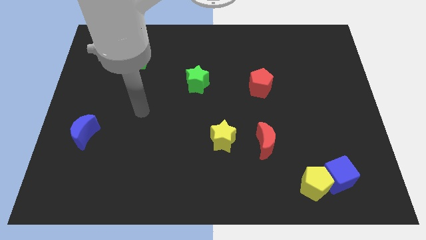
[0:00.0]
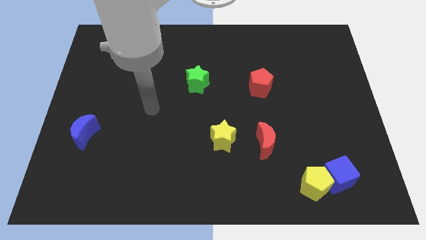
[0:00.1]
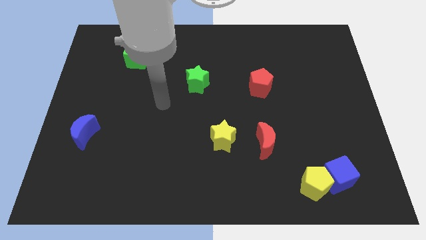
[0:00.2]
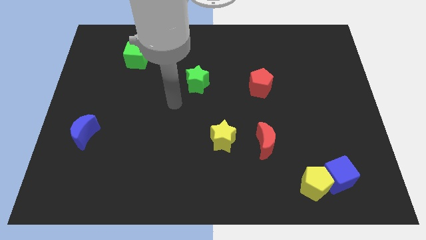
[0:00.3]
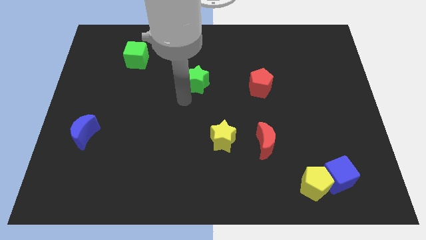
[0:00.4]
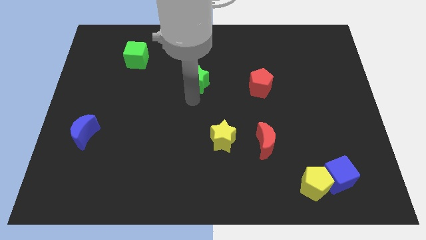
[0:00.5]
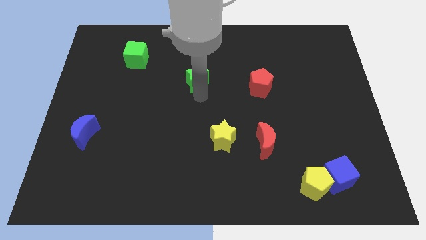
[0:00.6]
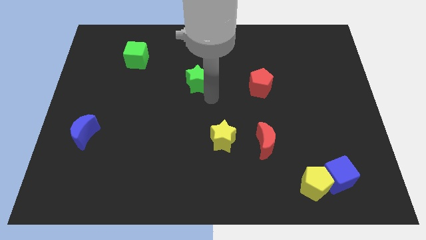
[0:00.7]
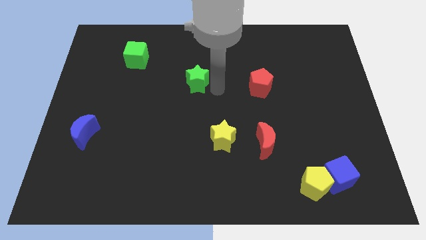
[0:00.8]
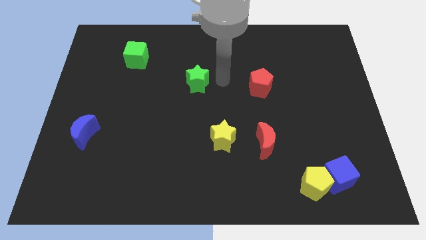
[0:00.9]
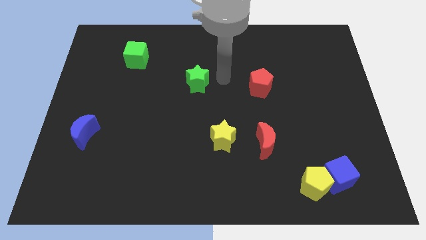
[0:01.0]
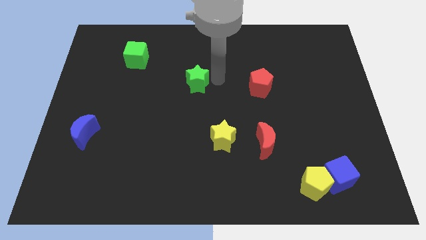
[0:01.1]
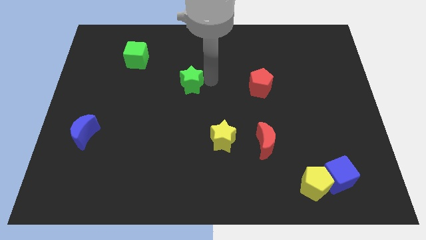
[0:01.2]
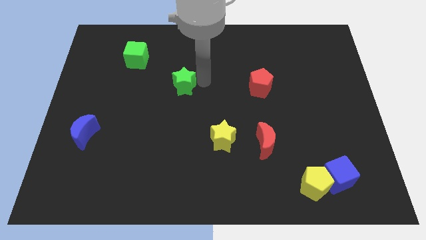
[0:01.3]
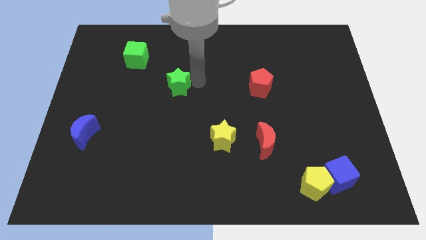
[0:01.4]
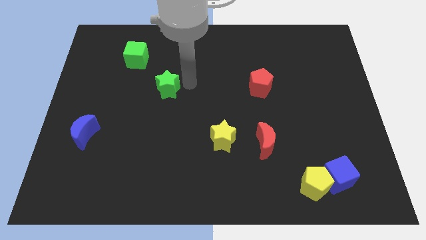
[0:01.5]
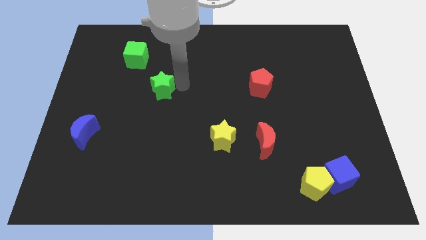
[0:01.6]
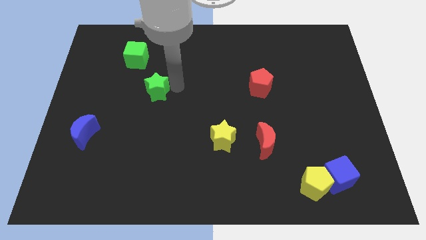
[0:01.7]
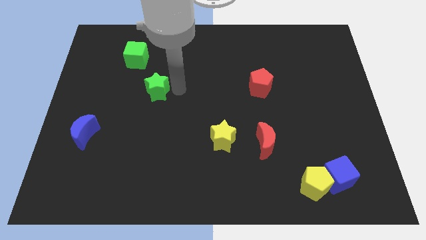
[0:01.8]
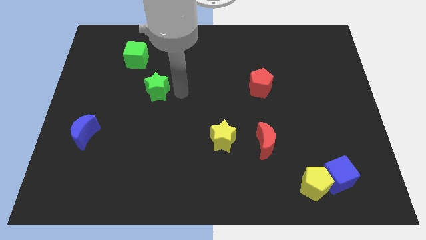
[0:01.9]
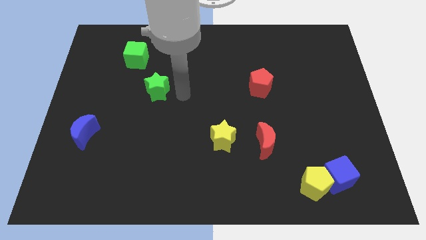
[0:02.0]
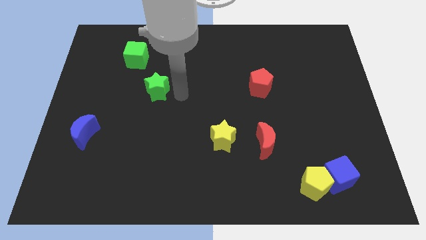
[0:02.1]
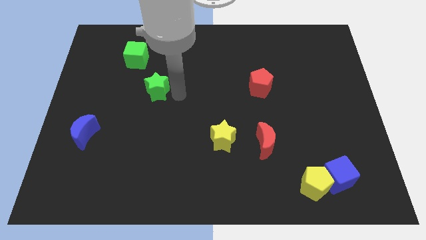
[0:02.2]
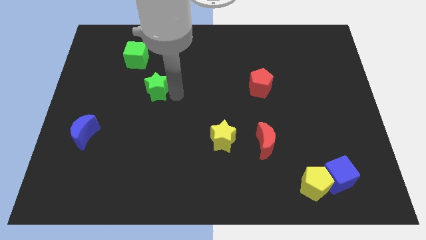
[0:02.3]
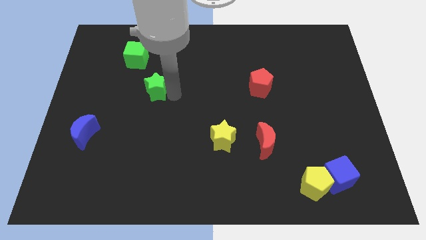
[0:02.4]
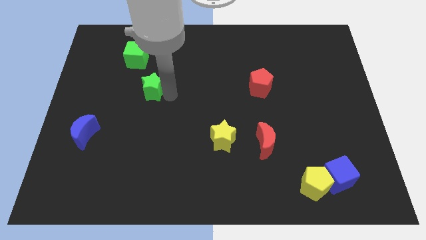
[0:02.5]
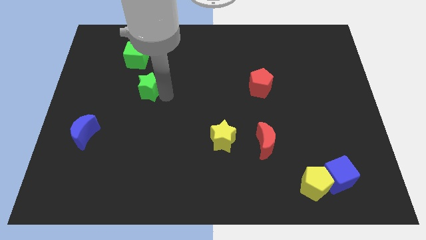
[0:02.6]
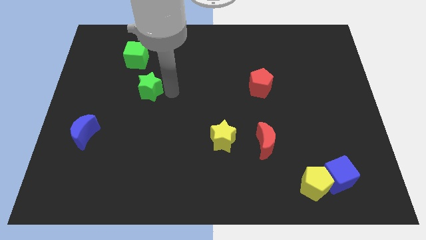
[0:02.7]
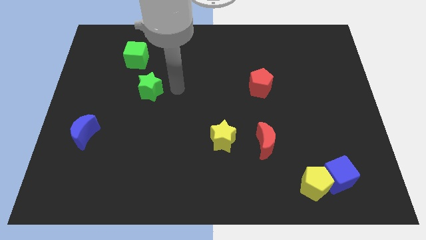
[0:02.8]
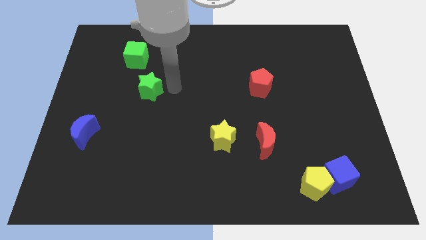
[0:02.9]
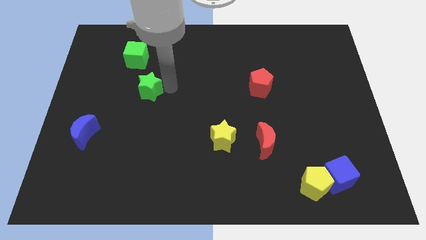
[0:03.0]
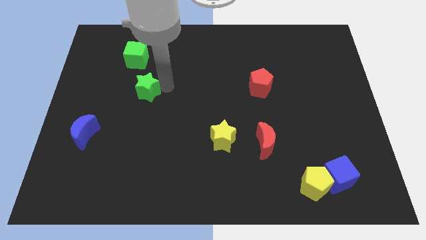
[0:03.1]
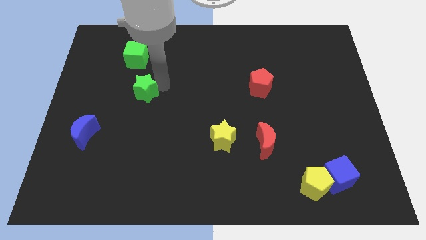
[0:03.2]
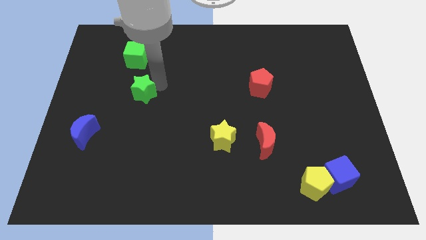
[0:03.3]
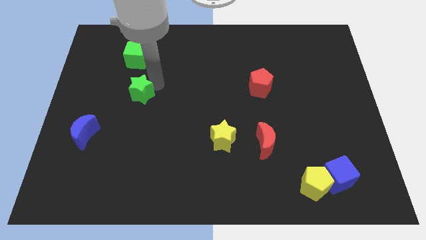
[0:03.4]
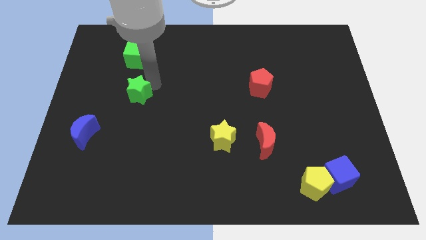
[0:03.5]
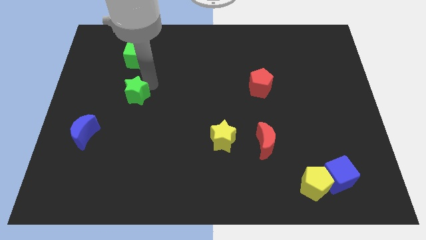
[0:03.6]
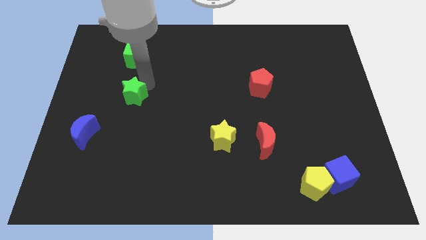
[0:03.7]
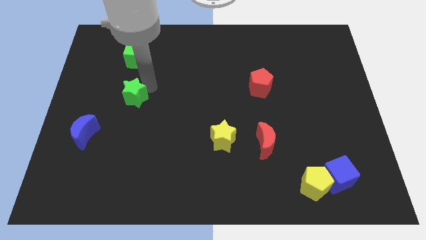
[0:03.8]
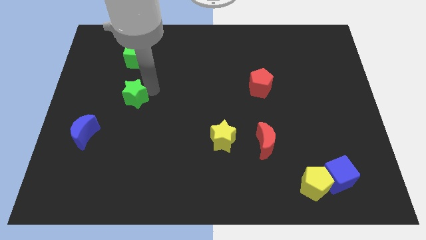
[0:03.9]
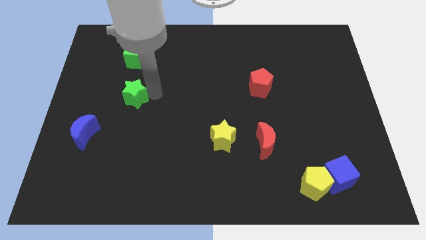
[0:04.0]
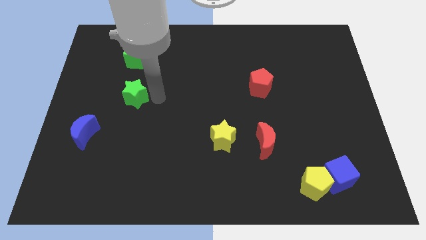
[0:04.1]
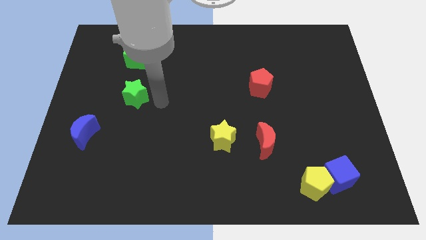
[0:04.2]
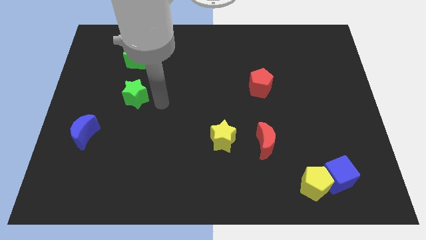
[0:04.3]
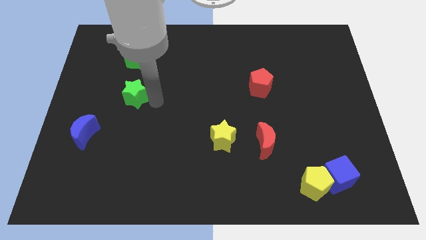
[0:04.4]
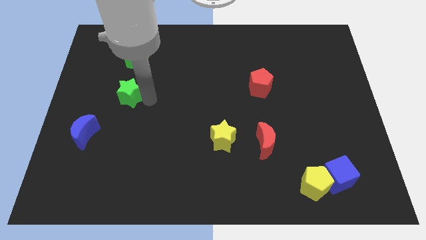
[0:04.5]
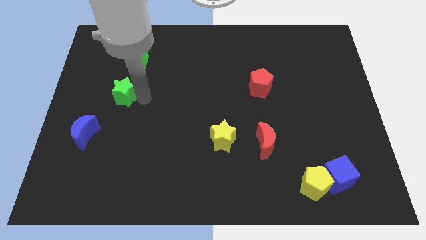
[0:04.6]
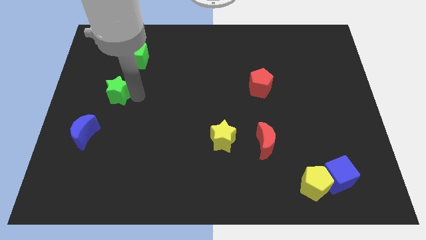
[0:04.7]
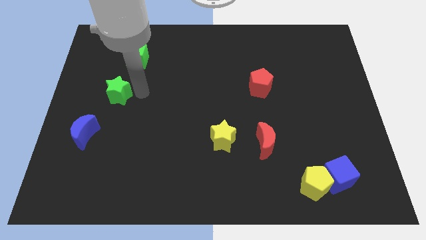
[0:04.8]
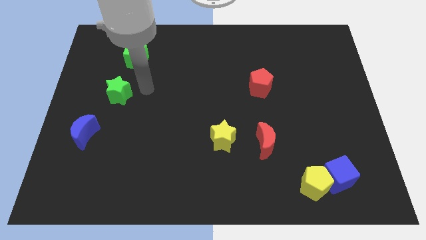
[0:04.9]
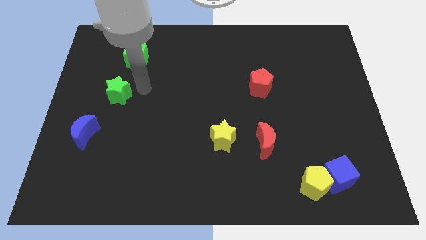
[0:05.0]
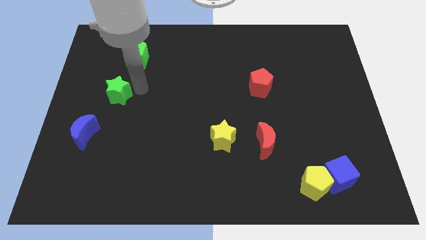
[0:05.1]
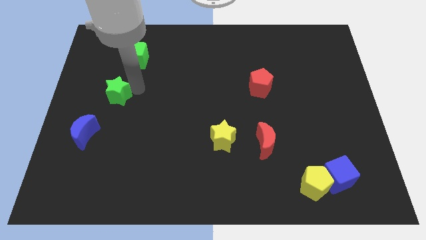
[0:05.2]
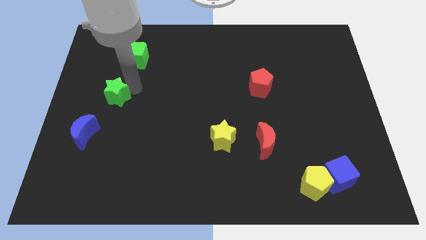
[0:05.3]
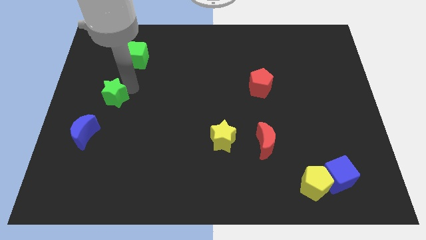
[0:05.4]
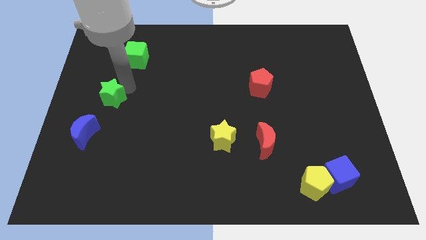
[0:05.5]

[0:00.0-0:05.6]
push the green star to the top side of the blue moon
